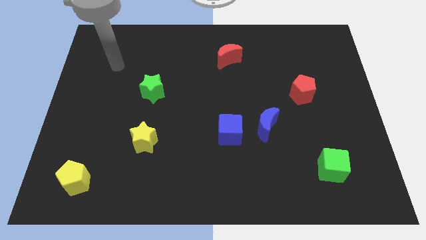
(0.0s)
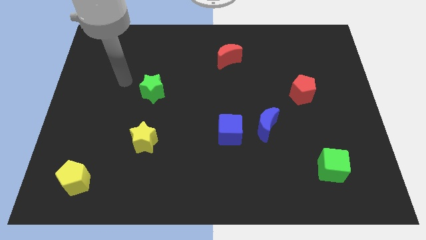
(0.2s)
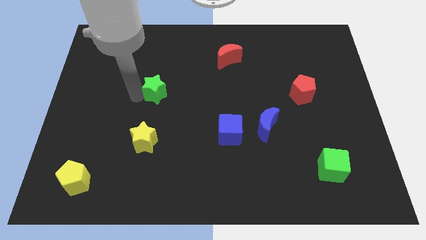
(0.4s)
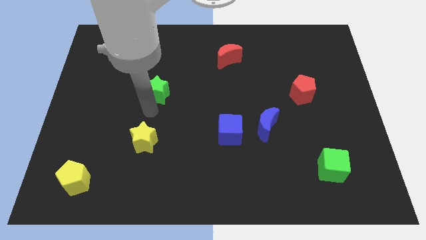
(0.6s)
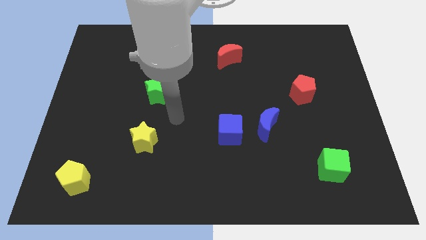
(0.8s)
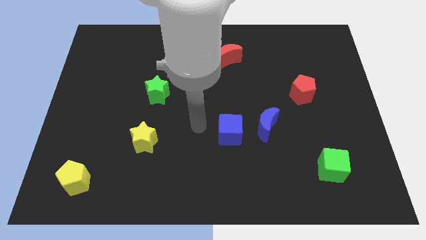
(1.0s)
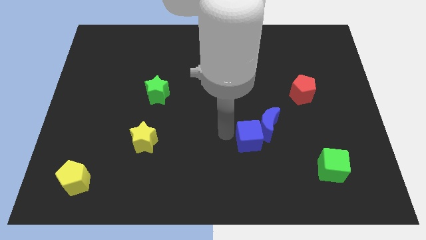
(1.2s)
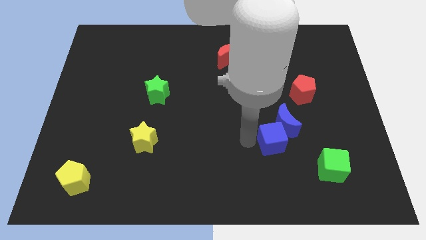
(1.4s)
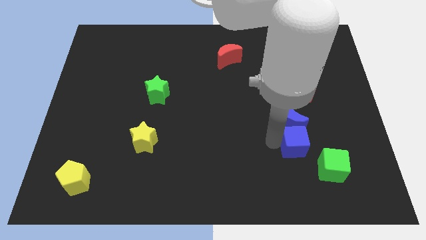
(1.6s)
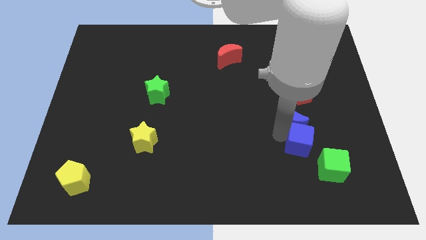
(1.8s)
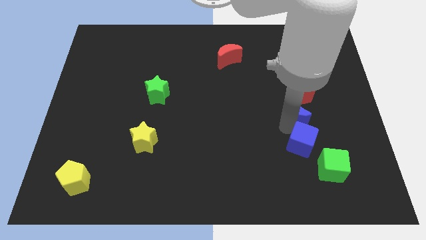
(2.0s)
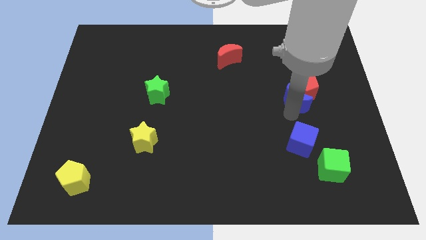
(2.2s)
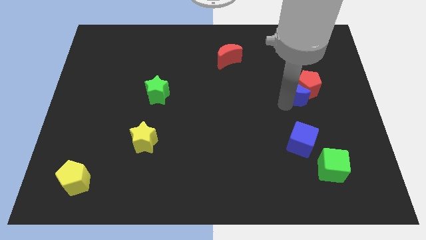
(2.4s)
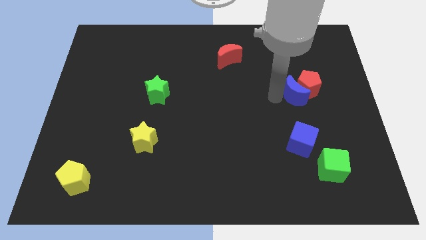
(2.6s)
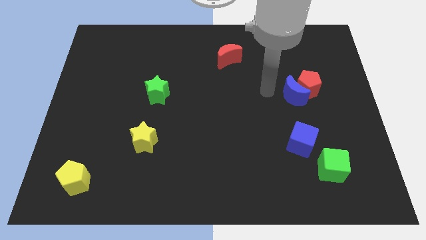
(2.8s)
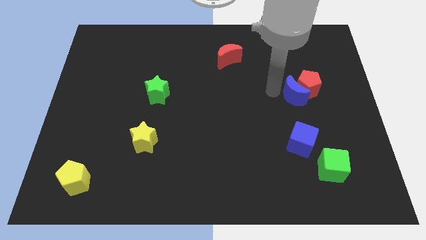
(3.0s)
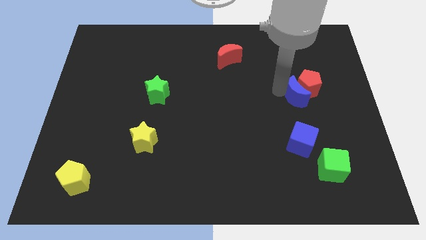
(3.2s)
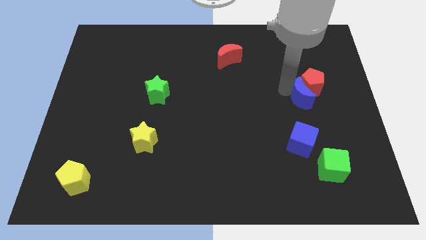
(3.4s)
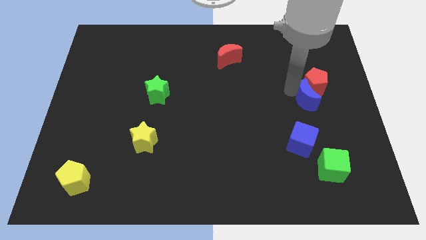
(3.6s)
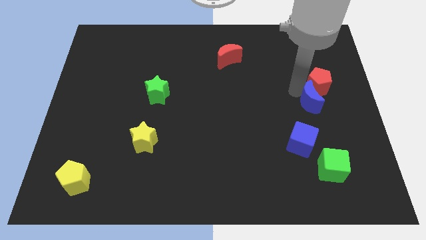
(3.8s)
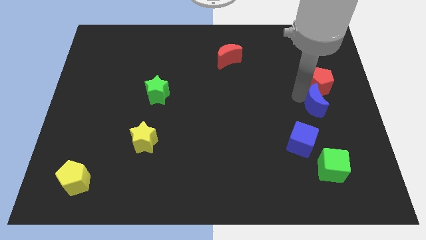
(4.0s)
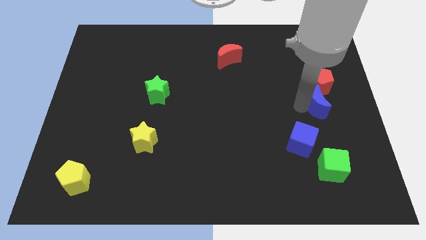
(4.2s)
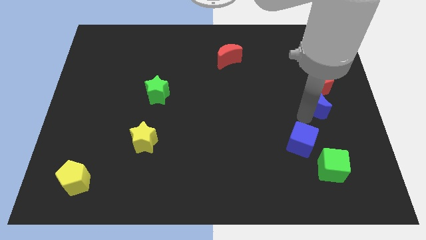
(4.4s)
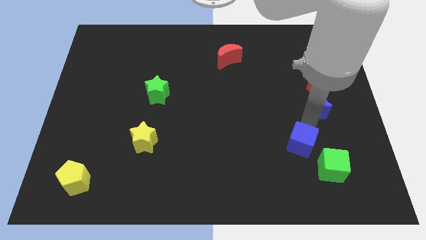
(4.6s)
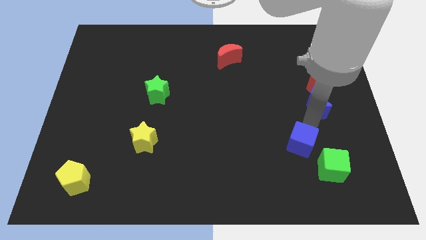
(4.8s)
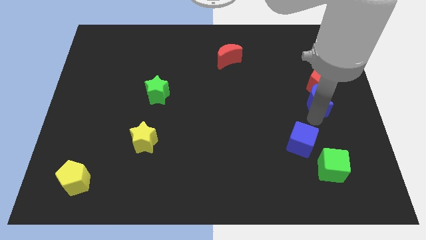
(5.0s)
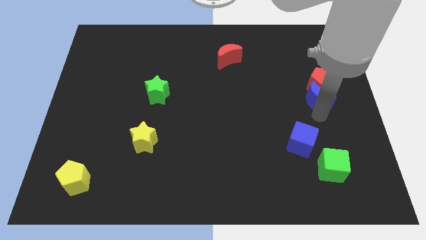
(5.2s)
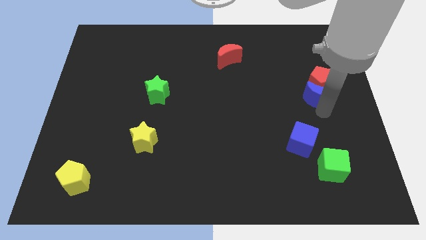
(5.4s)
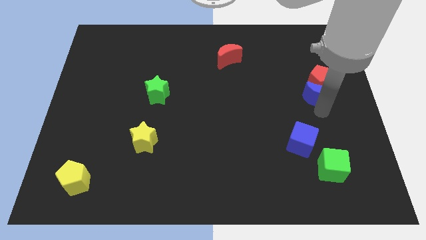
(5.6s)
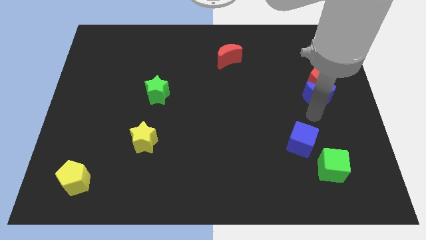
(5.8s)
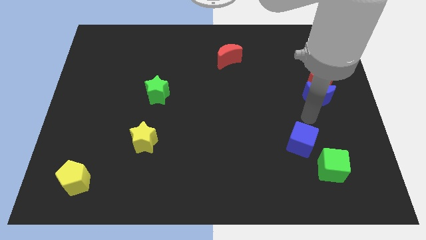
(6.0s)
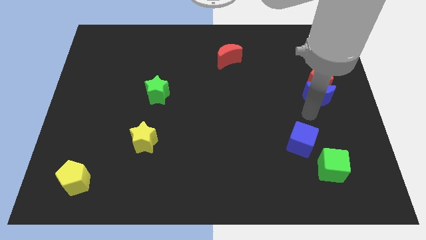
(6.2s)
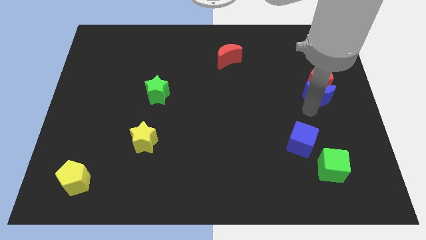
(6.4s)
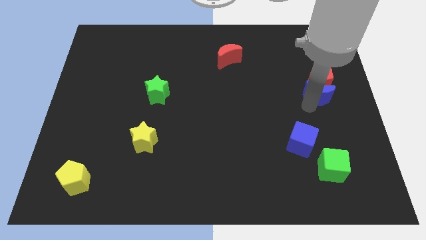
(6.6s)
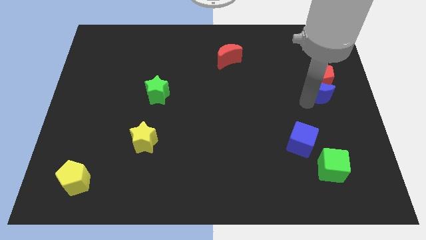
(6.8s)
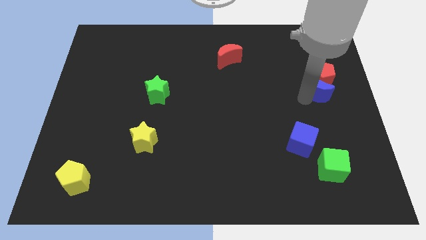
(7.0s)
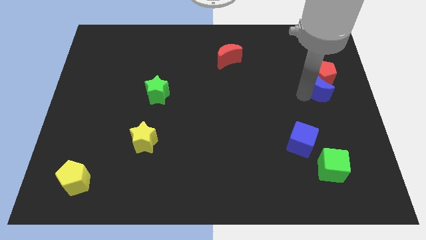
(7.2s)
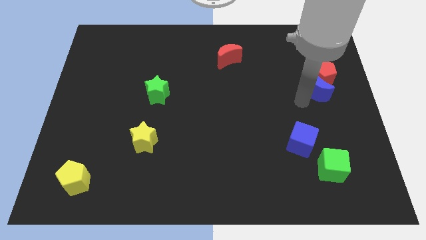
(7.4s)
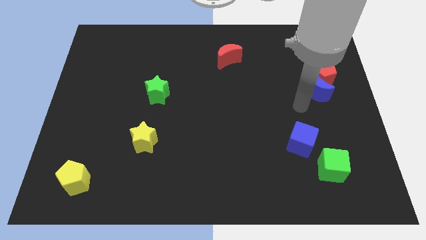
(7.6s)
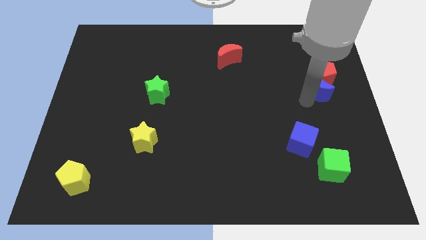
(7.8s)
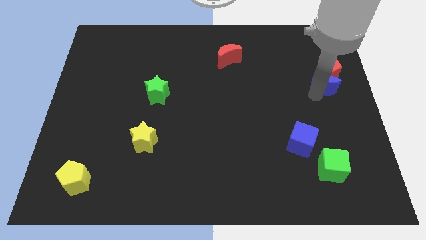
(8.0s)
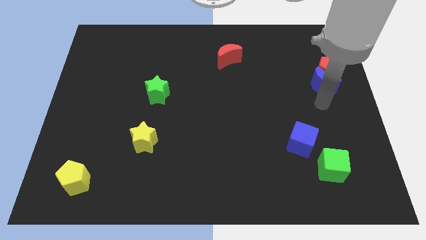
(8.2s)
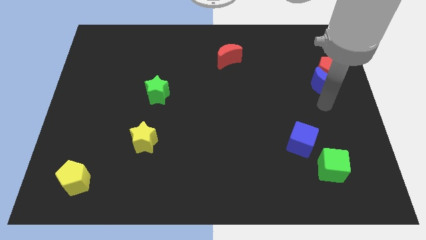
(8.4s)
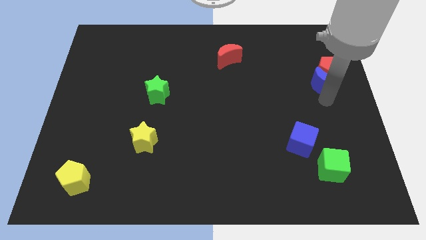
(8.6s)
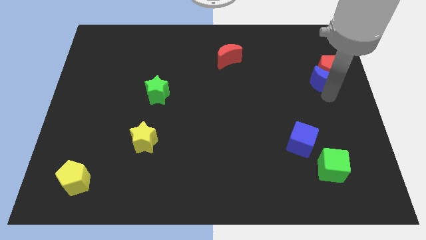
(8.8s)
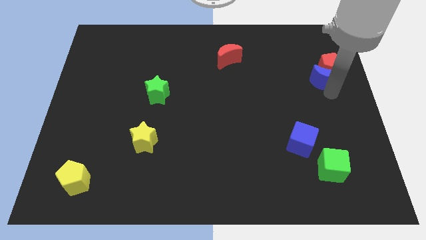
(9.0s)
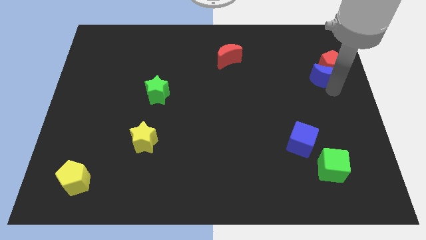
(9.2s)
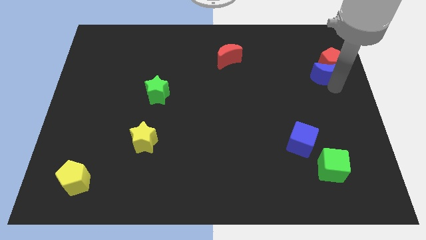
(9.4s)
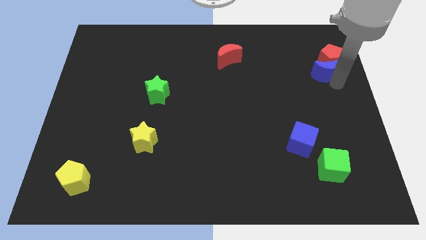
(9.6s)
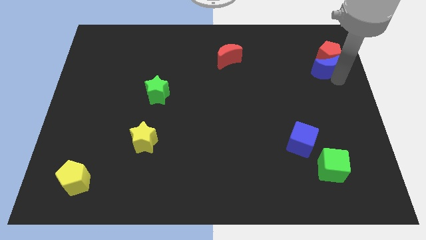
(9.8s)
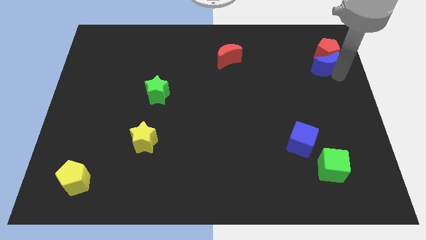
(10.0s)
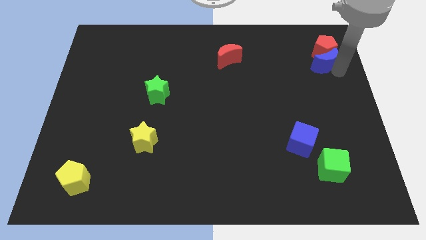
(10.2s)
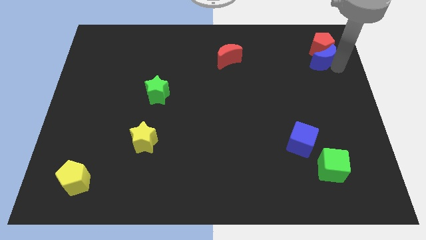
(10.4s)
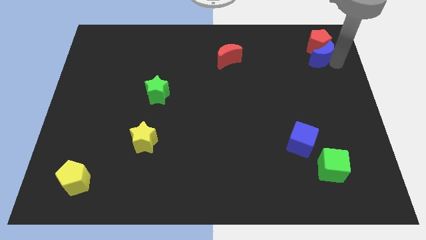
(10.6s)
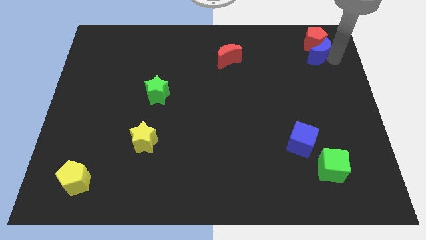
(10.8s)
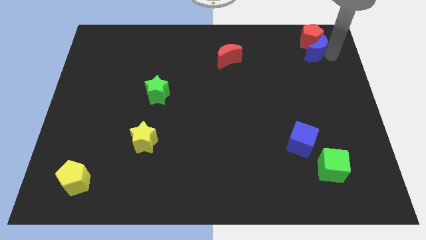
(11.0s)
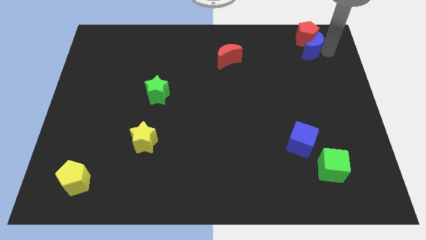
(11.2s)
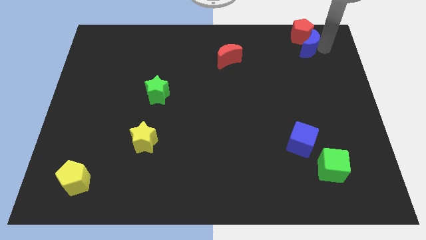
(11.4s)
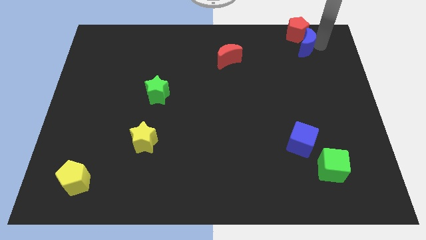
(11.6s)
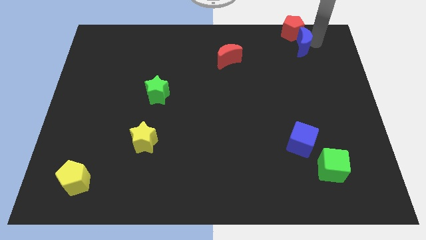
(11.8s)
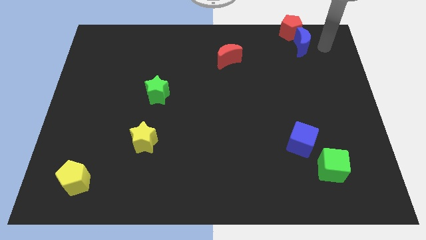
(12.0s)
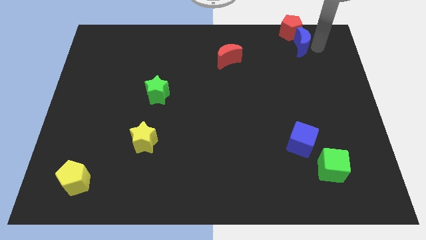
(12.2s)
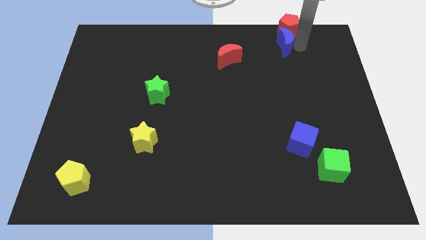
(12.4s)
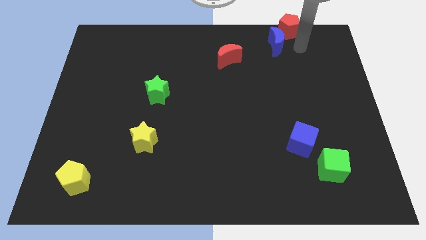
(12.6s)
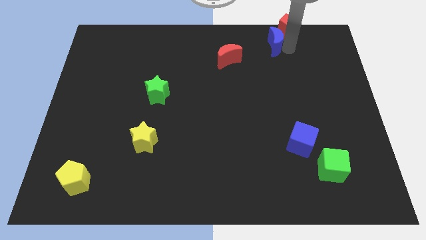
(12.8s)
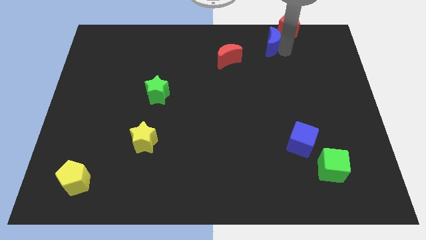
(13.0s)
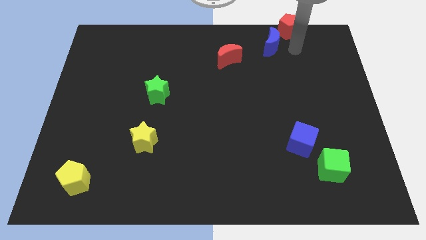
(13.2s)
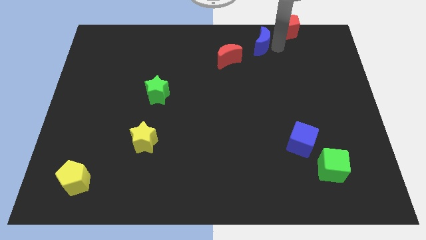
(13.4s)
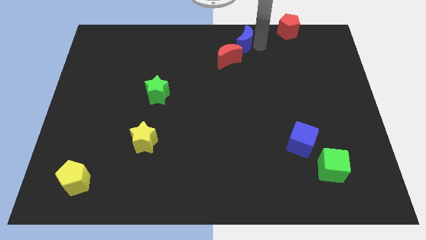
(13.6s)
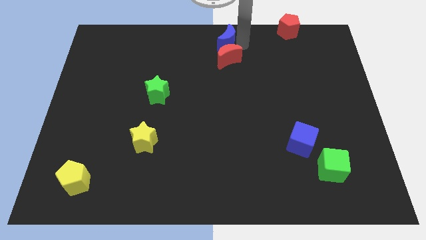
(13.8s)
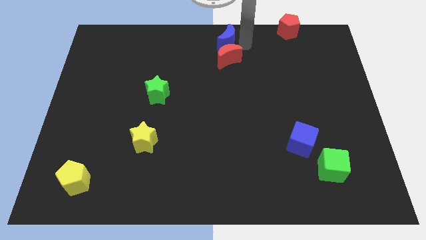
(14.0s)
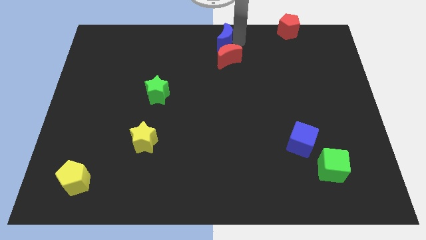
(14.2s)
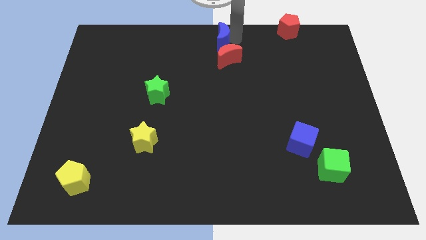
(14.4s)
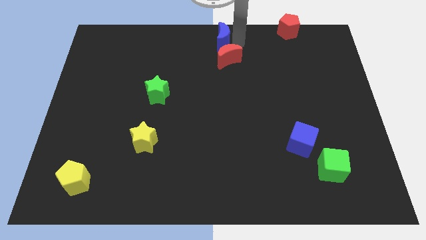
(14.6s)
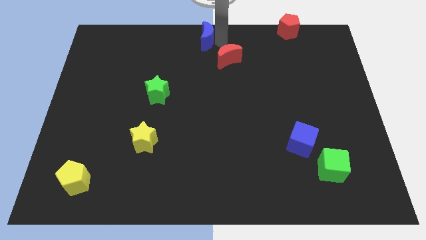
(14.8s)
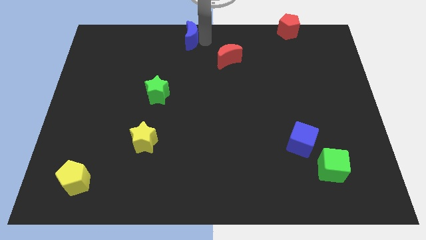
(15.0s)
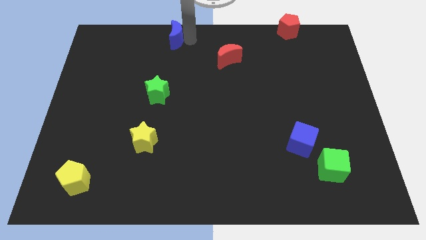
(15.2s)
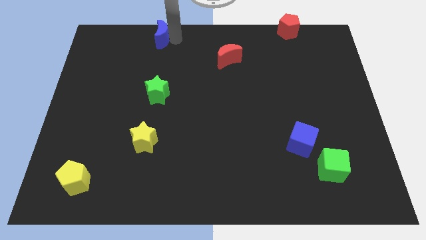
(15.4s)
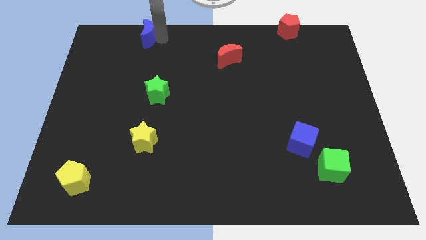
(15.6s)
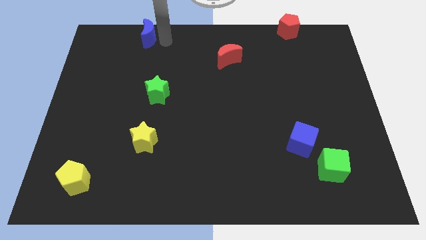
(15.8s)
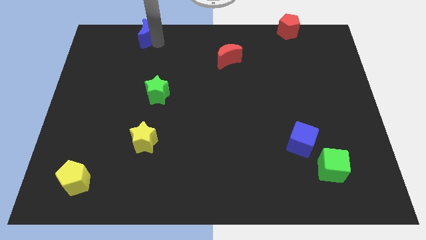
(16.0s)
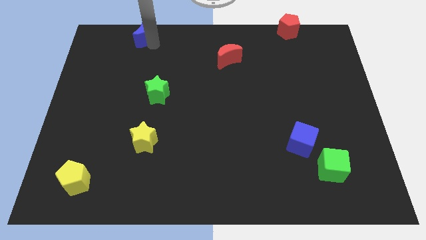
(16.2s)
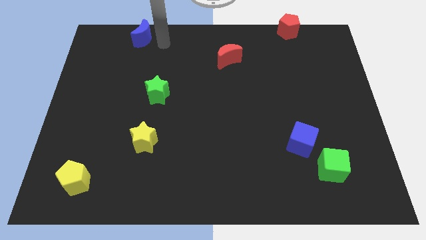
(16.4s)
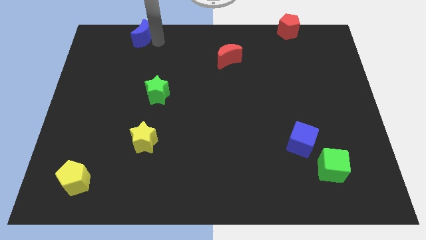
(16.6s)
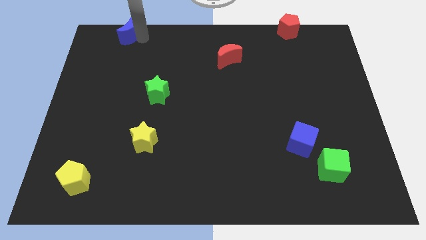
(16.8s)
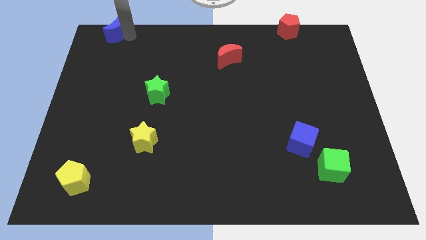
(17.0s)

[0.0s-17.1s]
push the blue moon to the top left of the board
